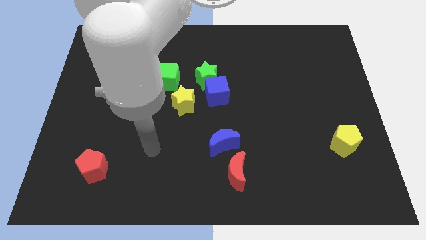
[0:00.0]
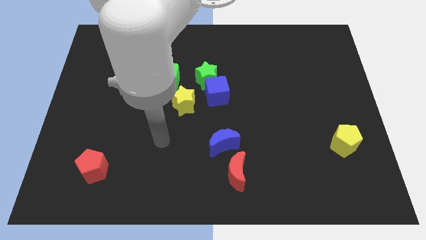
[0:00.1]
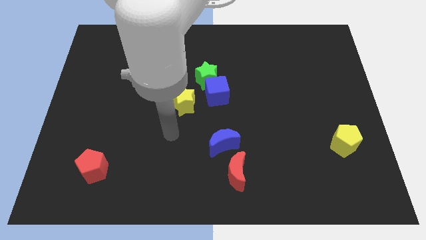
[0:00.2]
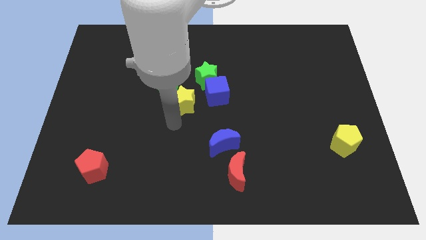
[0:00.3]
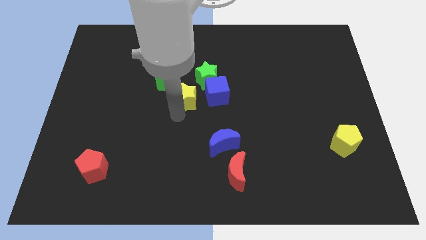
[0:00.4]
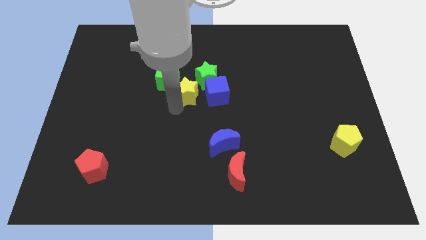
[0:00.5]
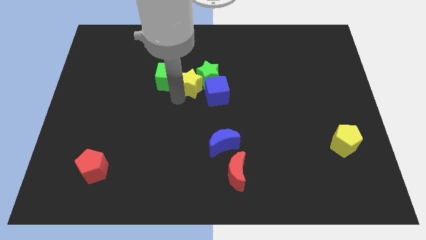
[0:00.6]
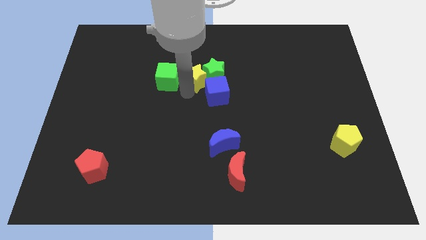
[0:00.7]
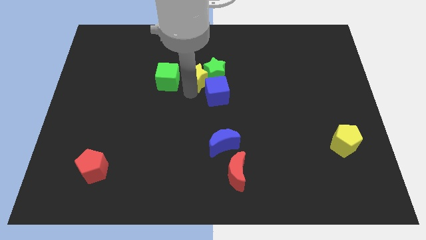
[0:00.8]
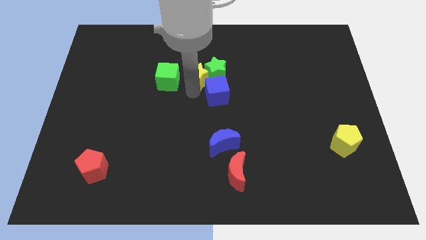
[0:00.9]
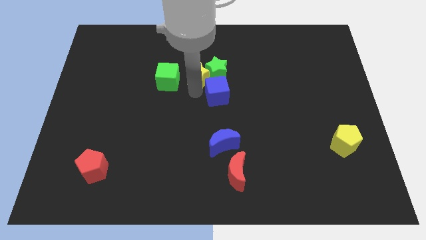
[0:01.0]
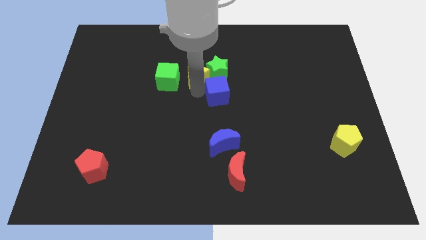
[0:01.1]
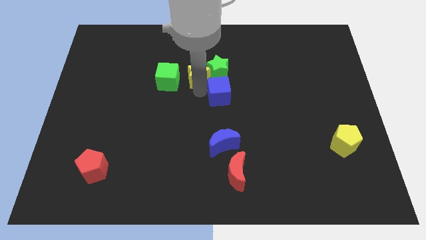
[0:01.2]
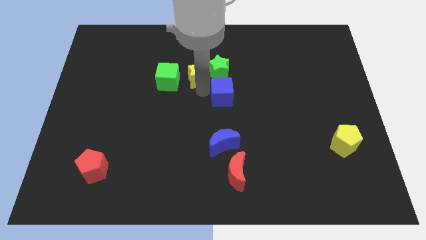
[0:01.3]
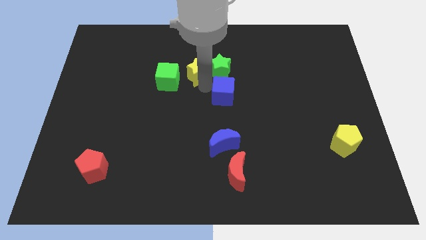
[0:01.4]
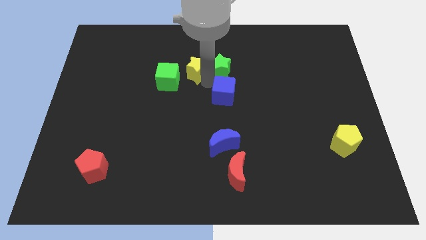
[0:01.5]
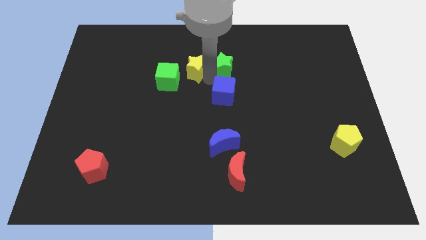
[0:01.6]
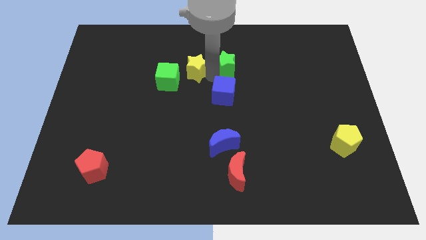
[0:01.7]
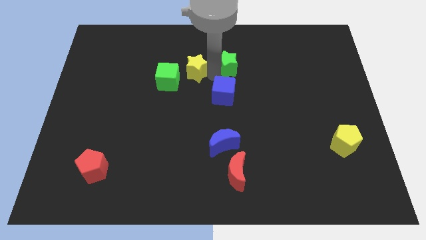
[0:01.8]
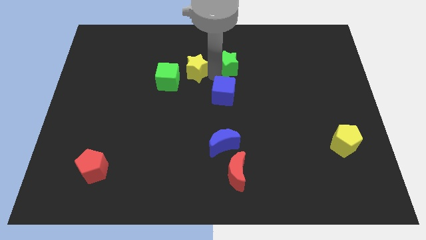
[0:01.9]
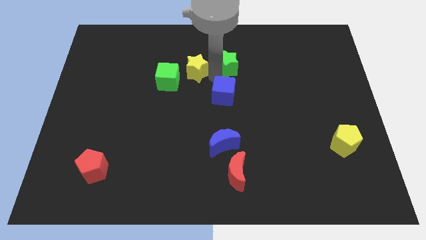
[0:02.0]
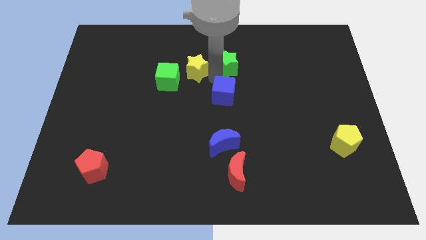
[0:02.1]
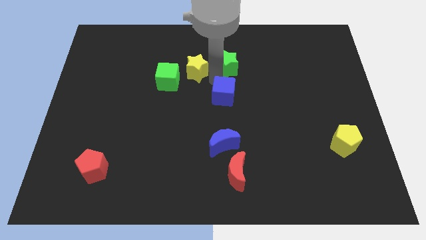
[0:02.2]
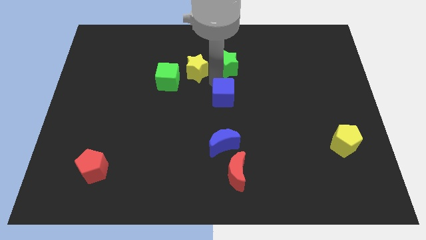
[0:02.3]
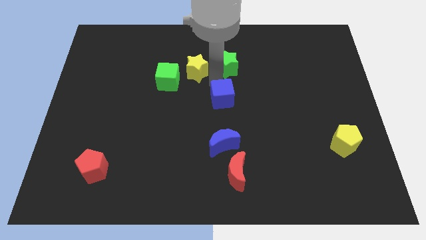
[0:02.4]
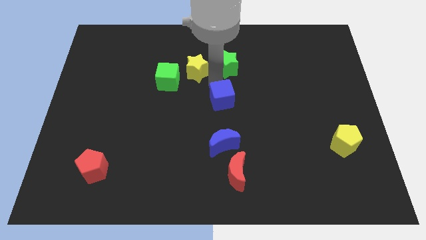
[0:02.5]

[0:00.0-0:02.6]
pull the blue cube apart from the green star and yellow star

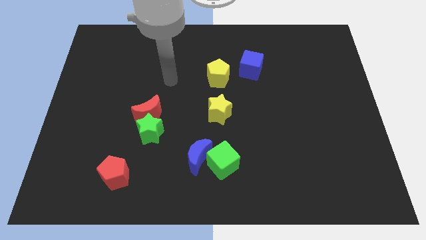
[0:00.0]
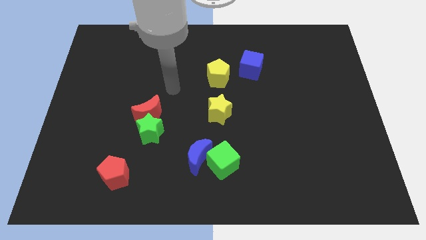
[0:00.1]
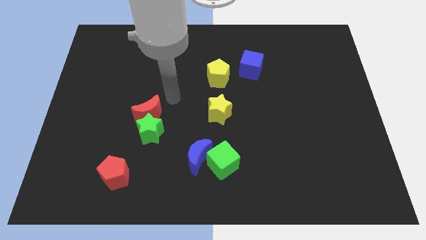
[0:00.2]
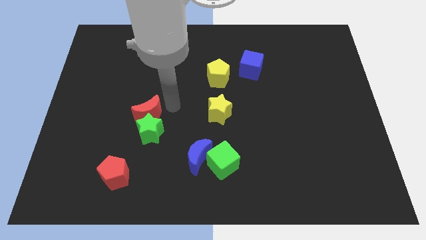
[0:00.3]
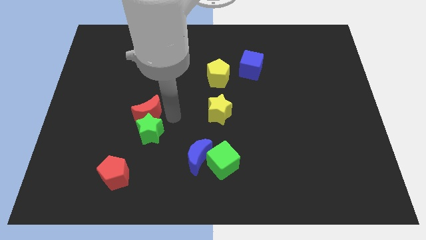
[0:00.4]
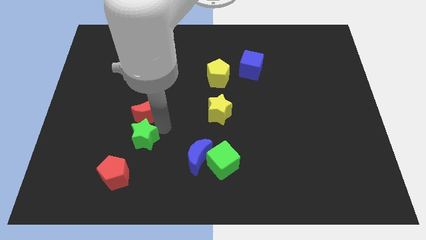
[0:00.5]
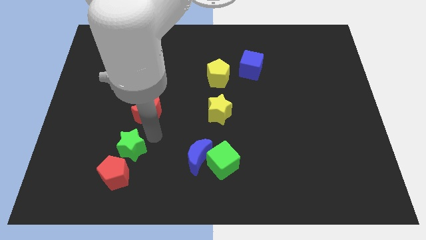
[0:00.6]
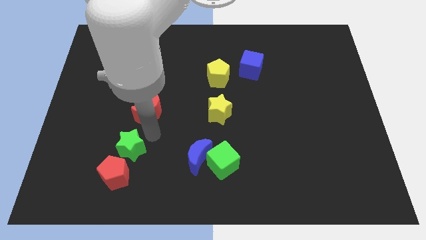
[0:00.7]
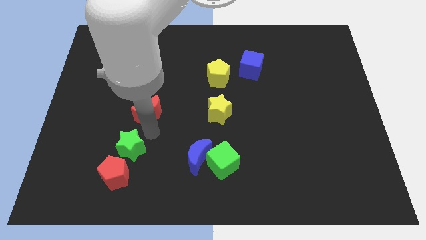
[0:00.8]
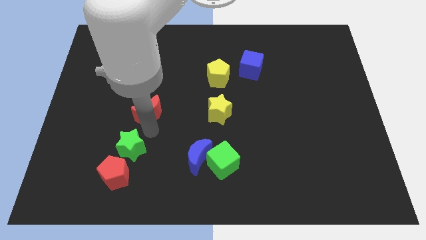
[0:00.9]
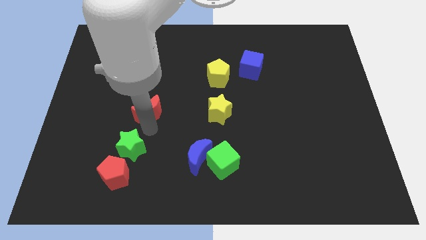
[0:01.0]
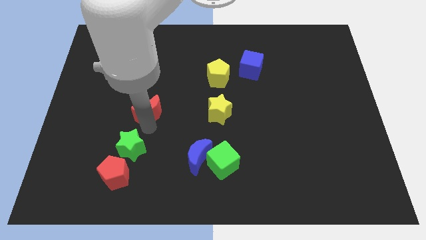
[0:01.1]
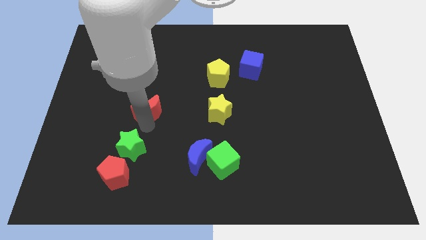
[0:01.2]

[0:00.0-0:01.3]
pull the red moon apart from the green star

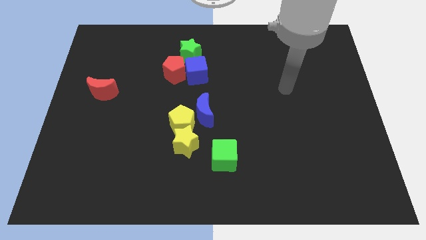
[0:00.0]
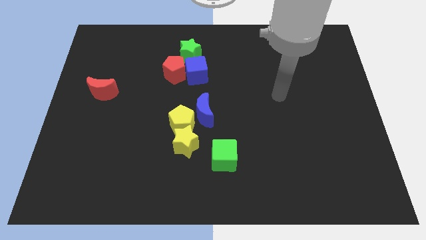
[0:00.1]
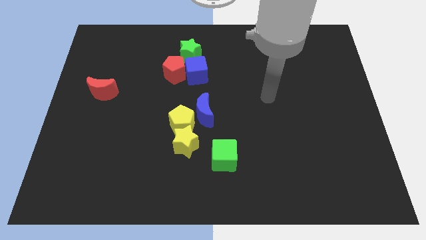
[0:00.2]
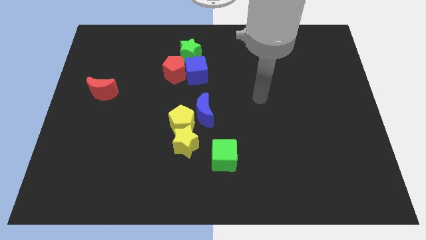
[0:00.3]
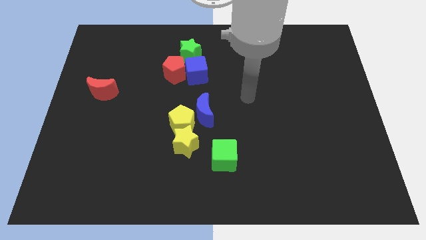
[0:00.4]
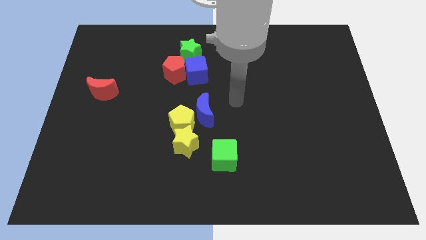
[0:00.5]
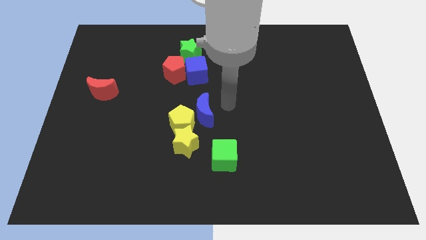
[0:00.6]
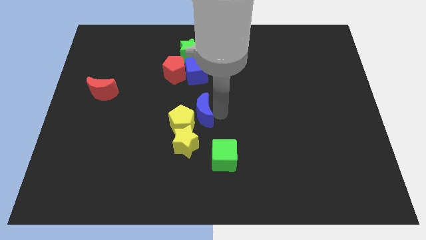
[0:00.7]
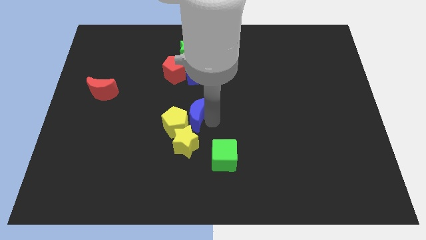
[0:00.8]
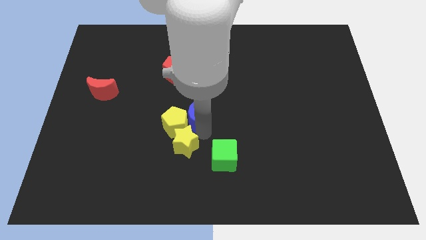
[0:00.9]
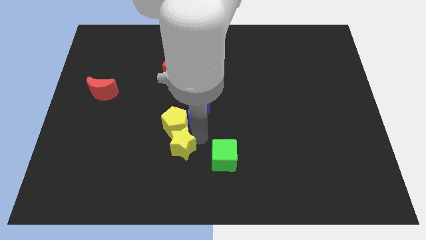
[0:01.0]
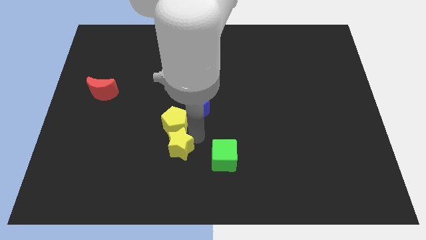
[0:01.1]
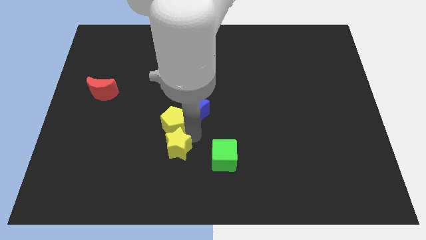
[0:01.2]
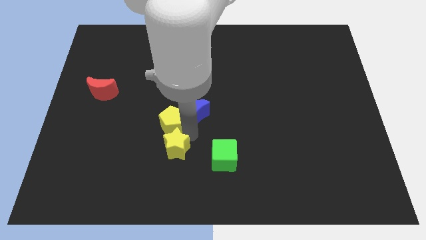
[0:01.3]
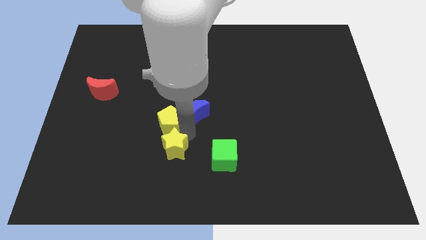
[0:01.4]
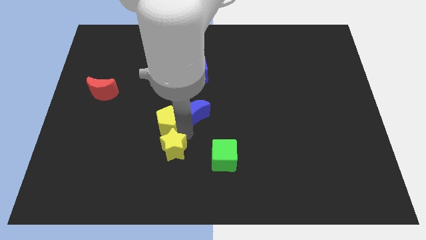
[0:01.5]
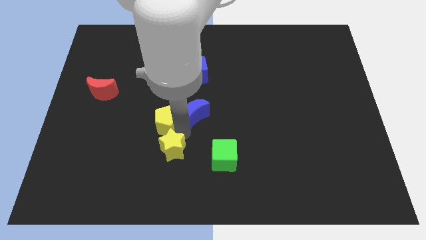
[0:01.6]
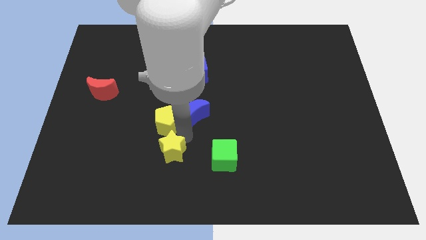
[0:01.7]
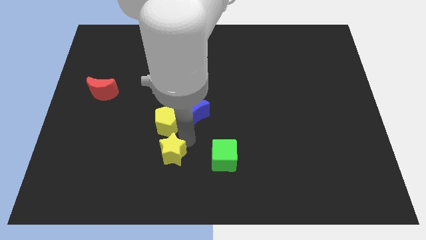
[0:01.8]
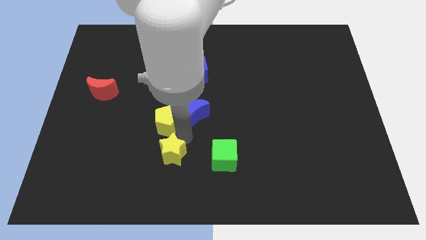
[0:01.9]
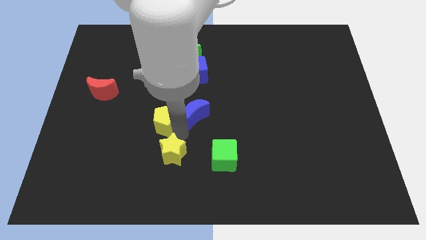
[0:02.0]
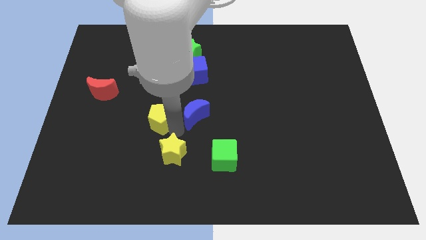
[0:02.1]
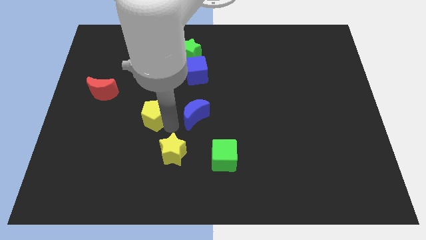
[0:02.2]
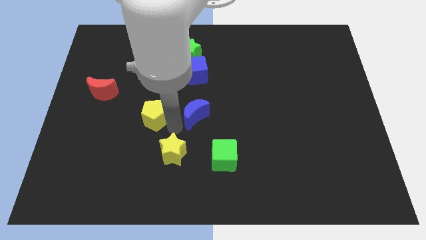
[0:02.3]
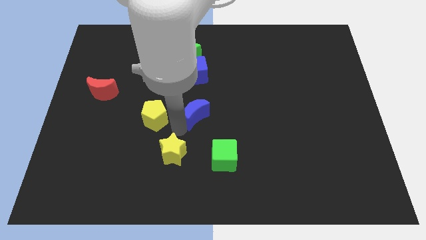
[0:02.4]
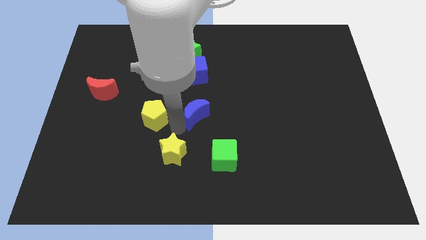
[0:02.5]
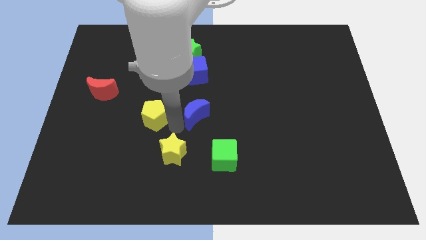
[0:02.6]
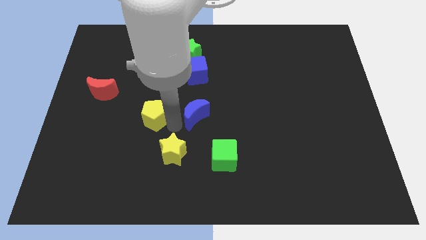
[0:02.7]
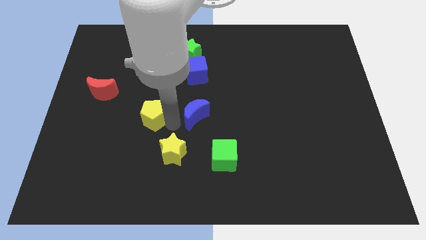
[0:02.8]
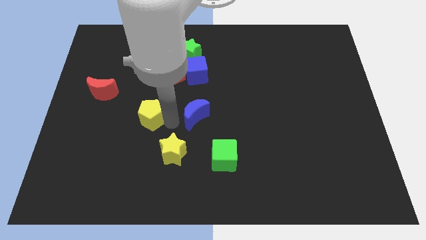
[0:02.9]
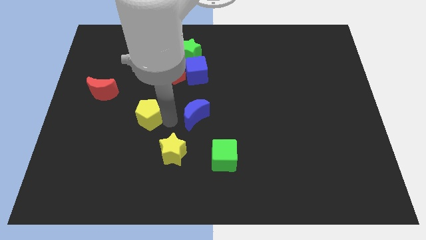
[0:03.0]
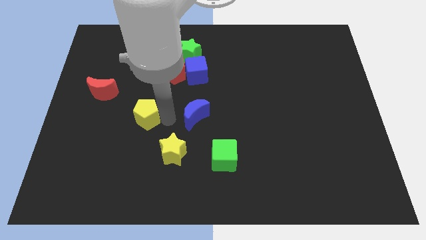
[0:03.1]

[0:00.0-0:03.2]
pull the yellow pentagon apart from the blue moon and yellow star

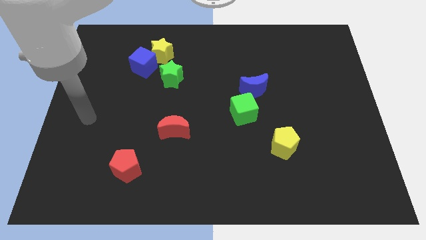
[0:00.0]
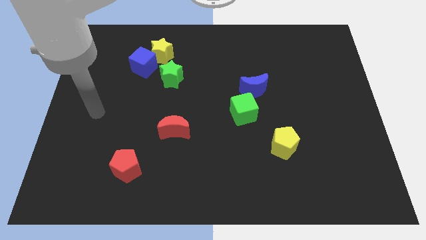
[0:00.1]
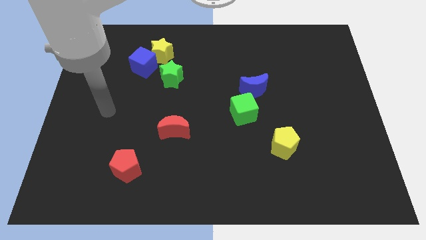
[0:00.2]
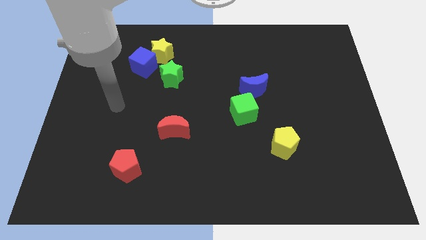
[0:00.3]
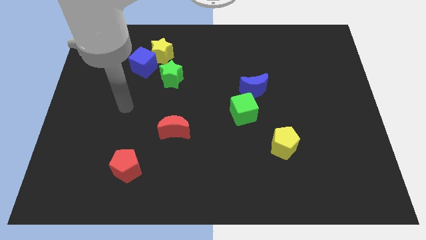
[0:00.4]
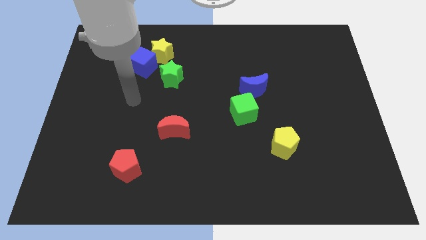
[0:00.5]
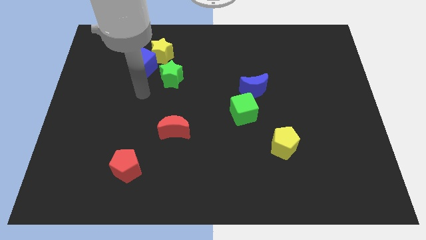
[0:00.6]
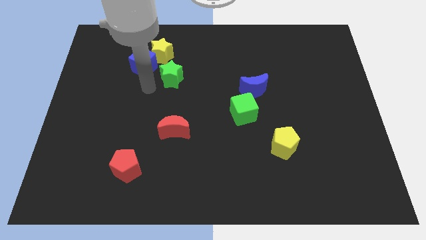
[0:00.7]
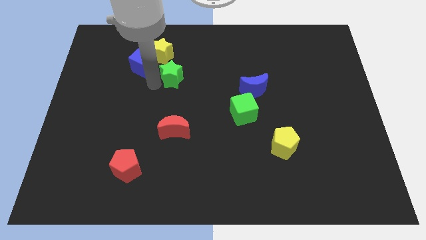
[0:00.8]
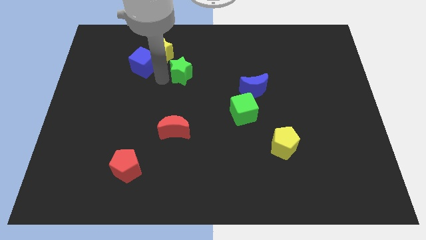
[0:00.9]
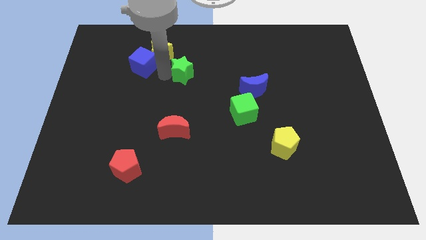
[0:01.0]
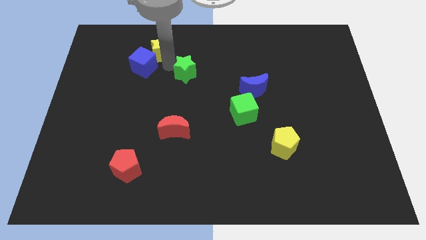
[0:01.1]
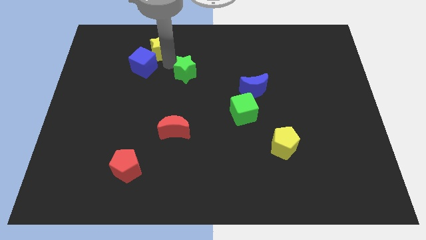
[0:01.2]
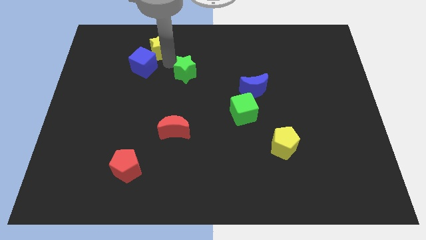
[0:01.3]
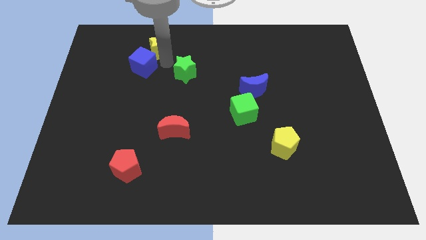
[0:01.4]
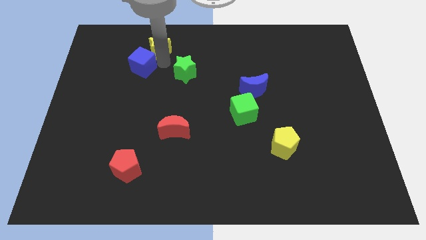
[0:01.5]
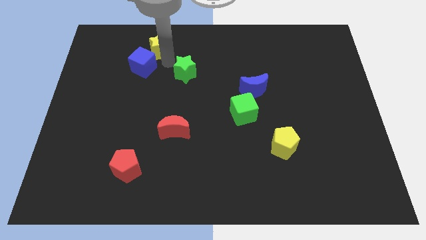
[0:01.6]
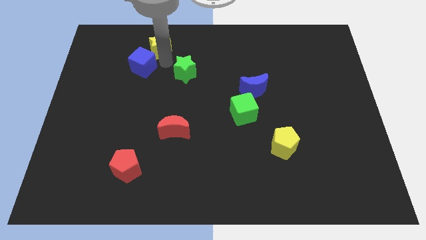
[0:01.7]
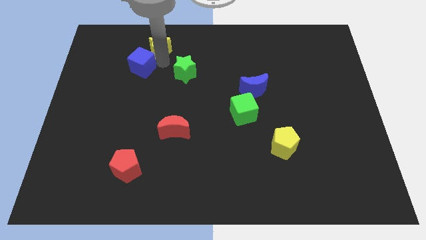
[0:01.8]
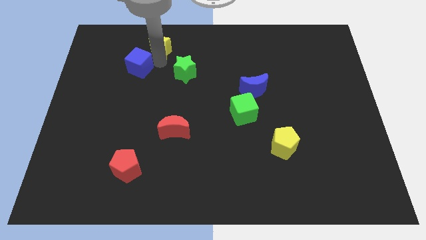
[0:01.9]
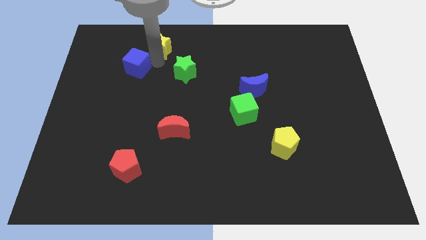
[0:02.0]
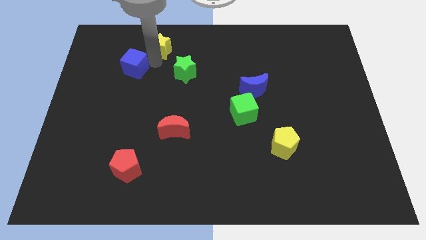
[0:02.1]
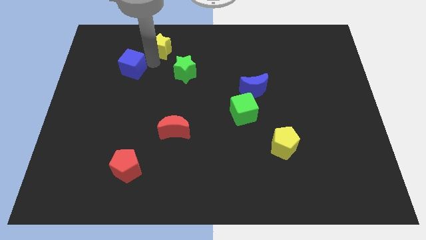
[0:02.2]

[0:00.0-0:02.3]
move the blue cube away from the yellow star and green star
